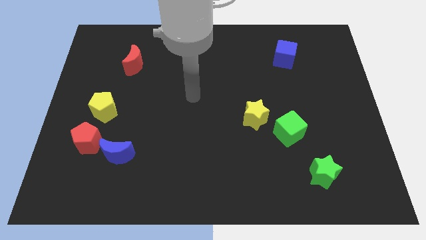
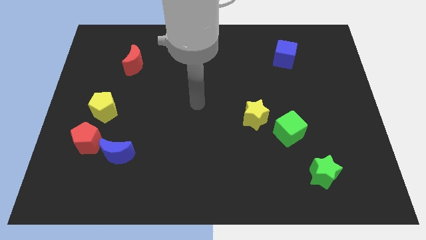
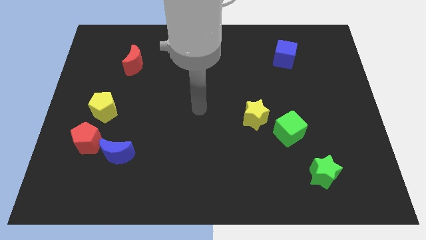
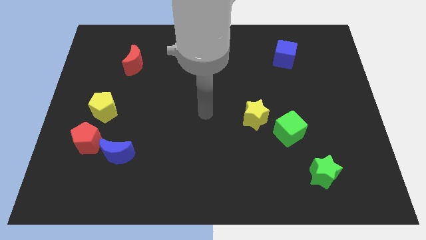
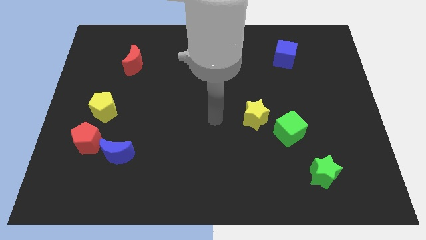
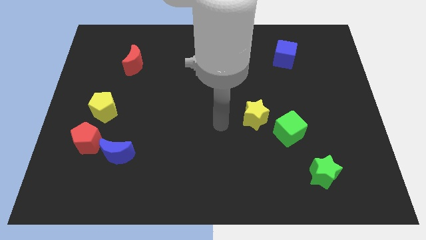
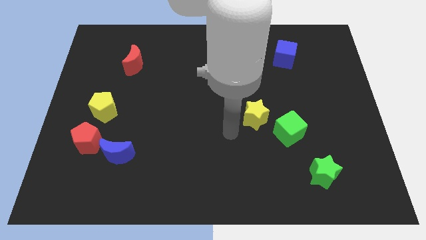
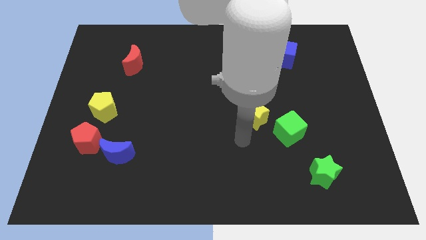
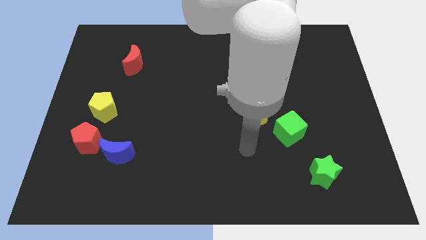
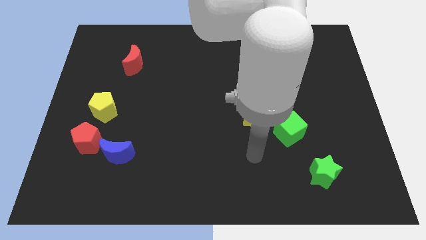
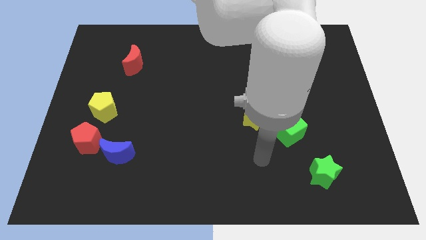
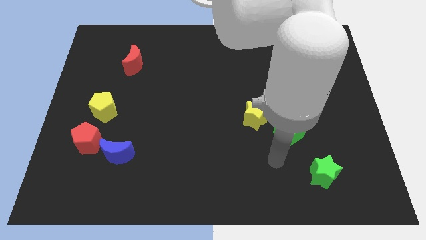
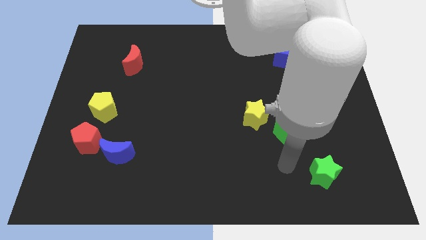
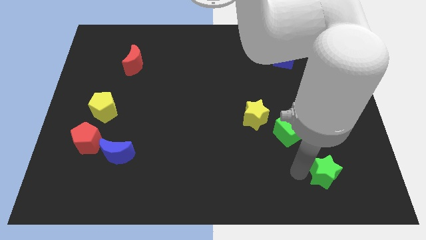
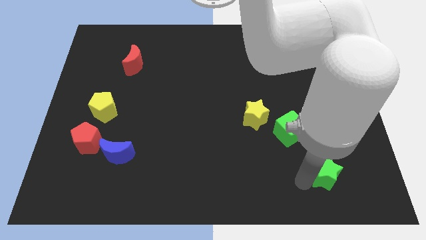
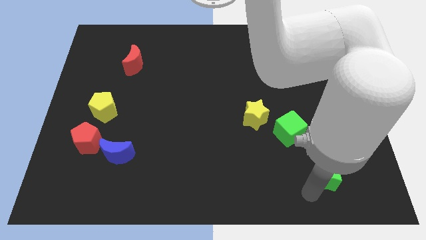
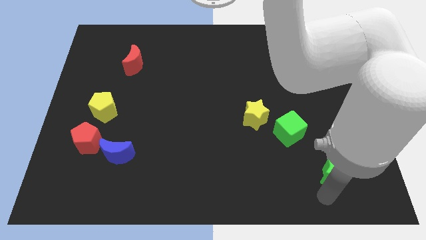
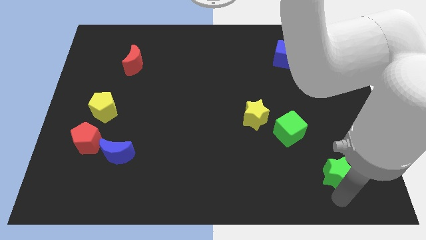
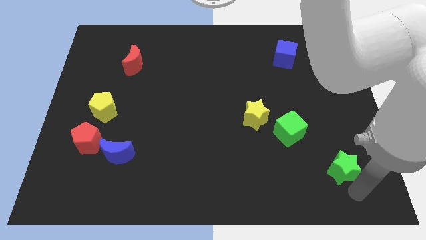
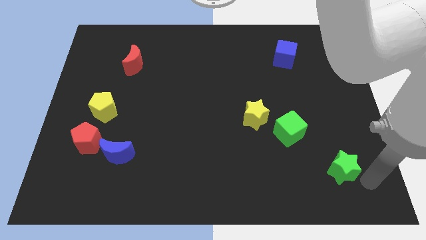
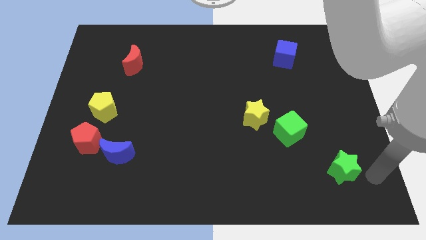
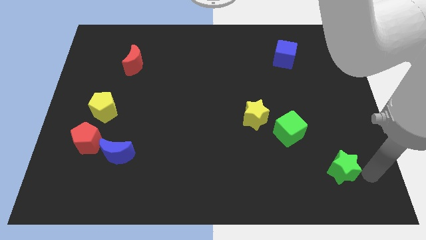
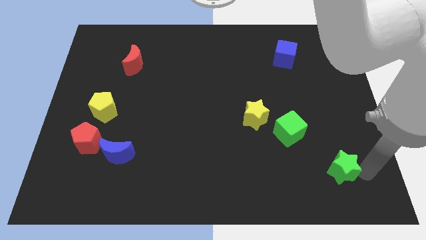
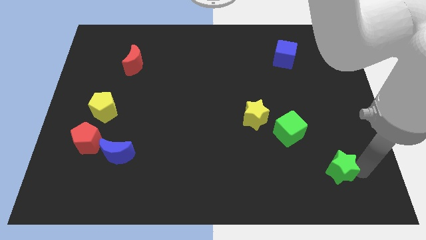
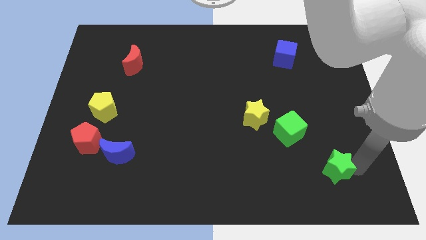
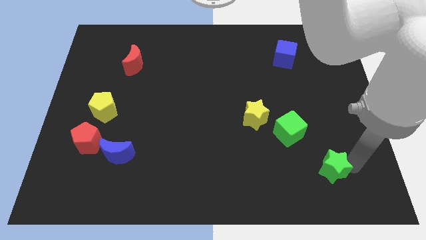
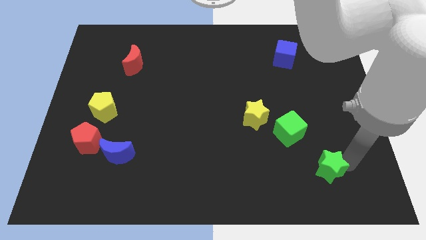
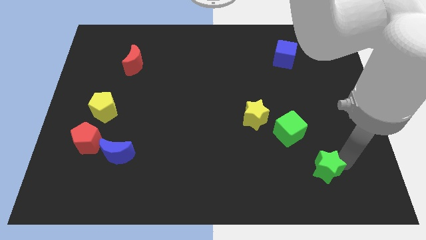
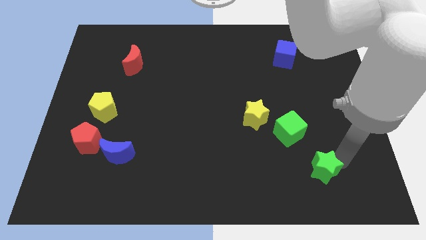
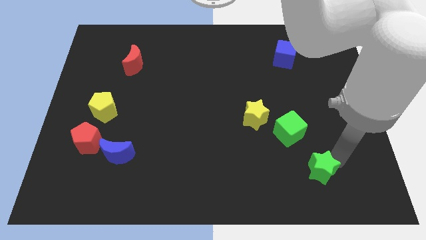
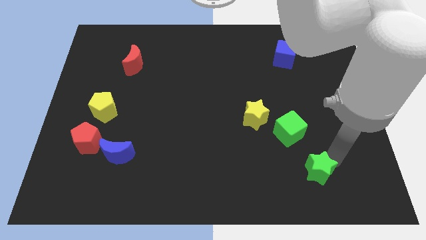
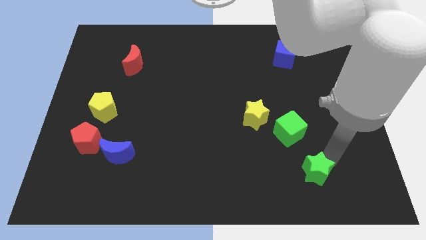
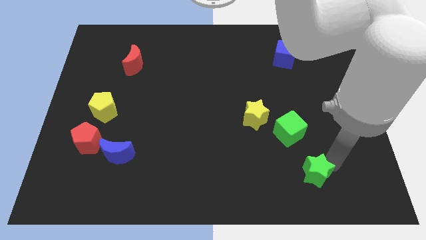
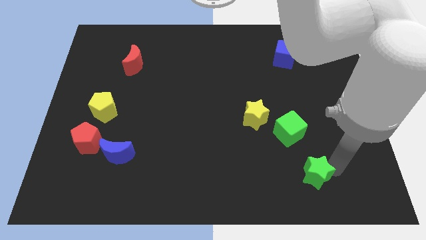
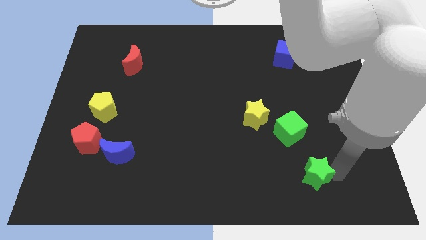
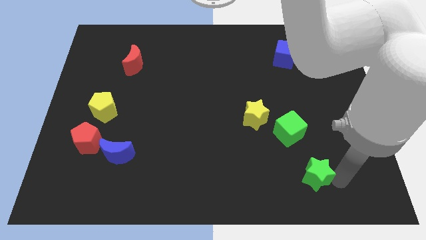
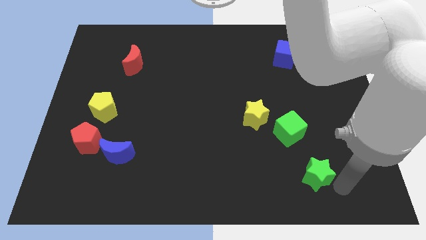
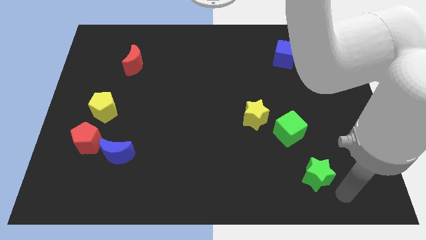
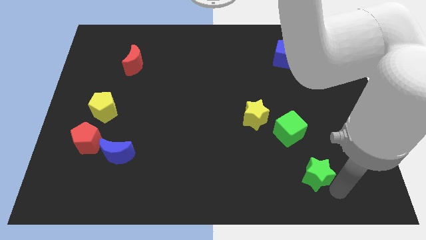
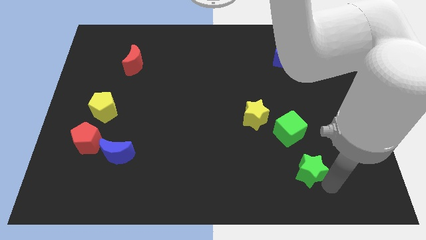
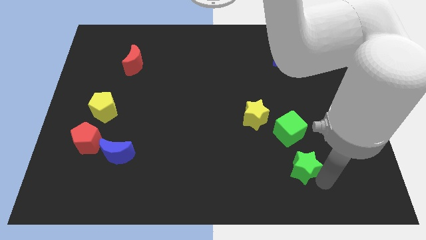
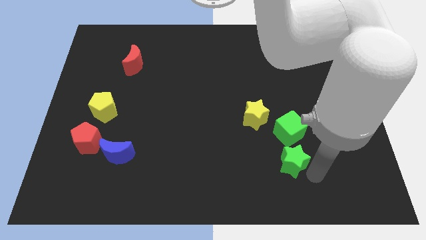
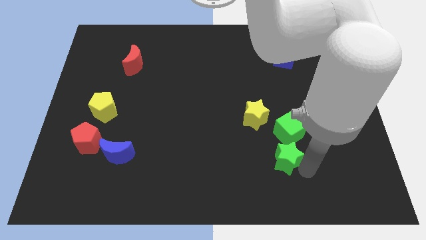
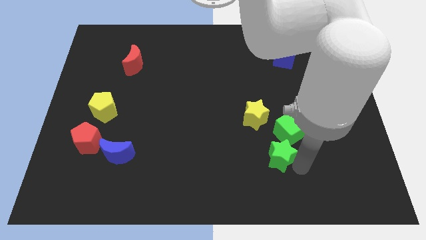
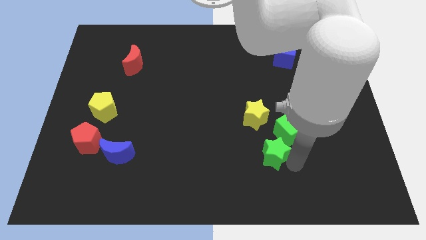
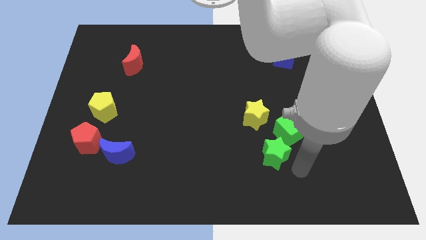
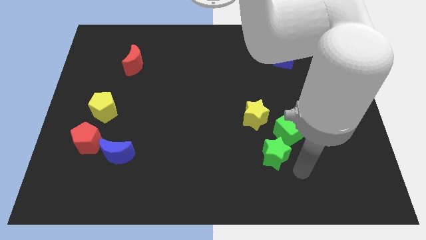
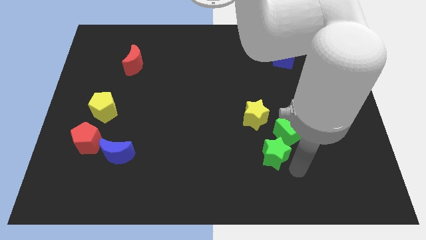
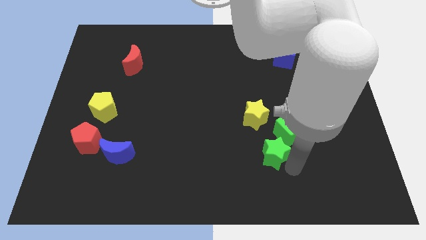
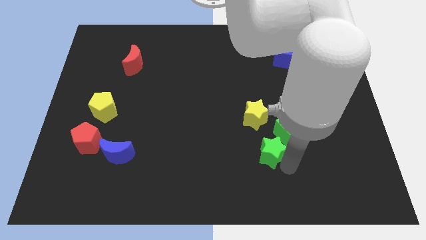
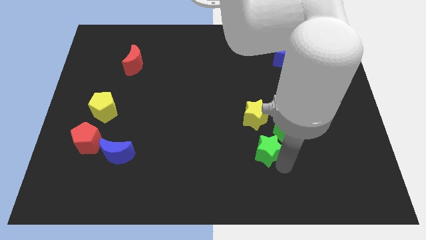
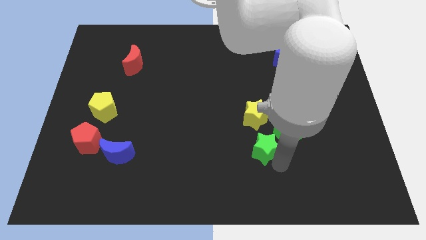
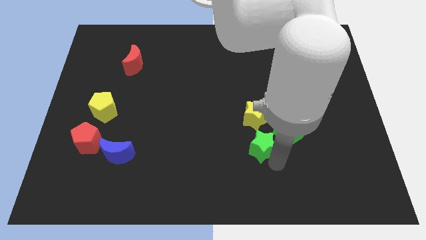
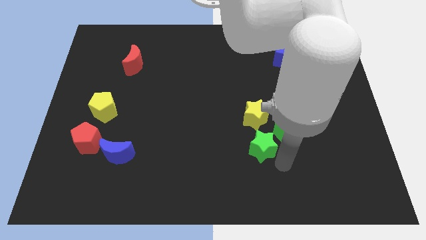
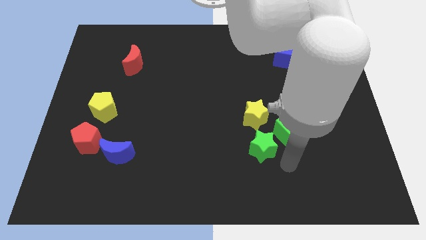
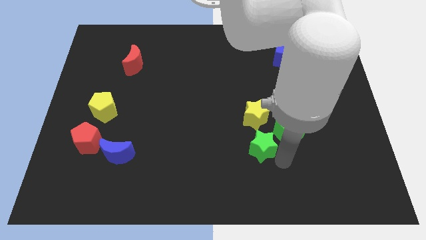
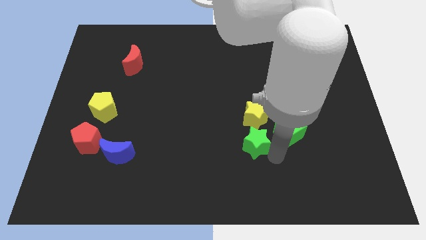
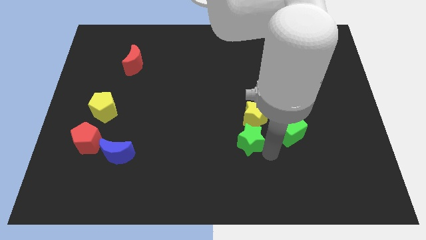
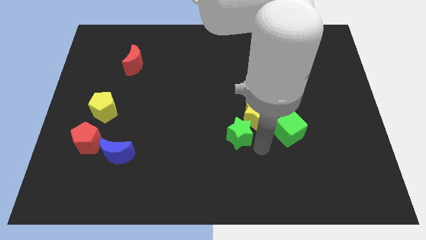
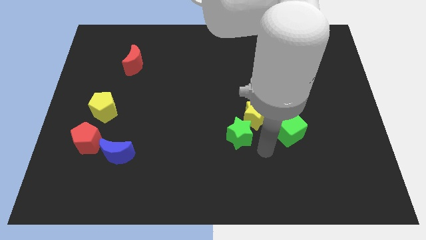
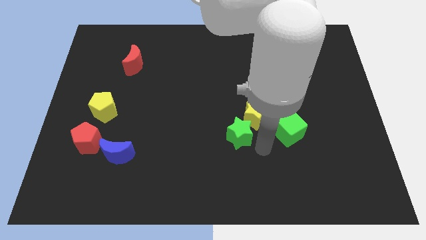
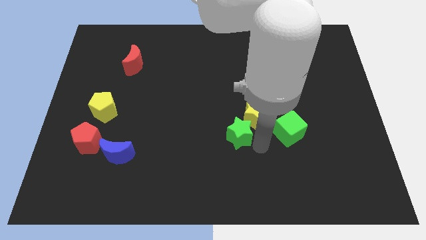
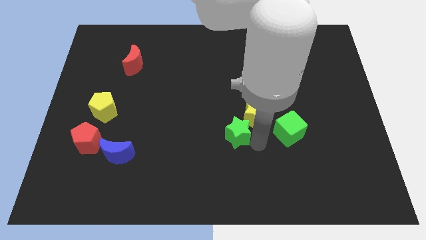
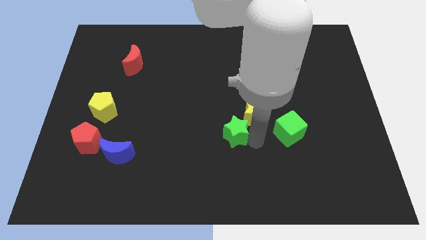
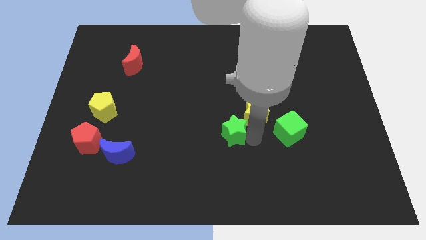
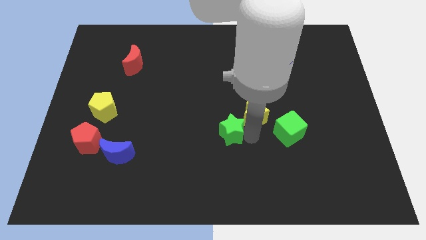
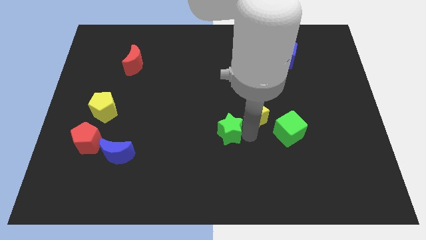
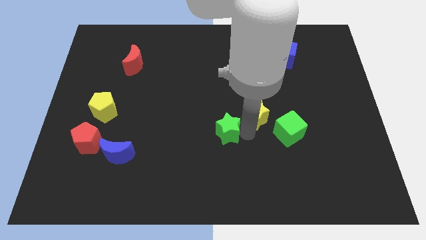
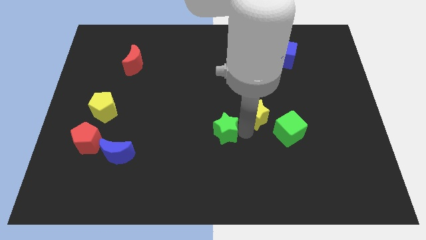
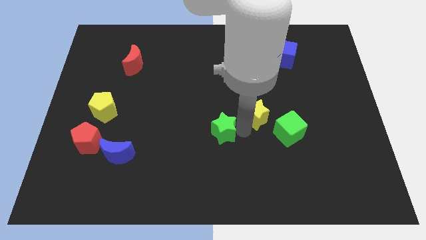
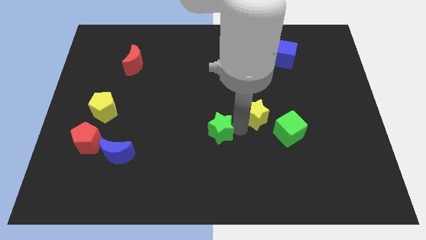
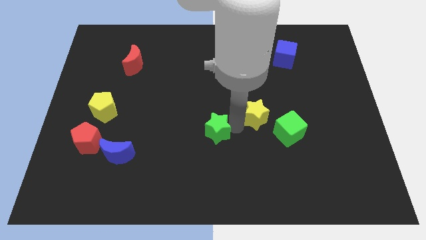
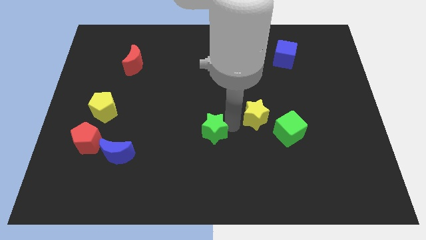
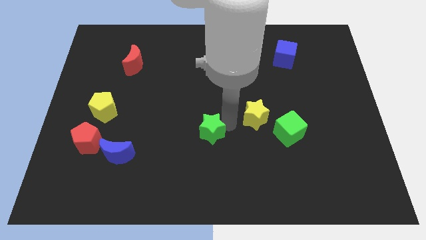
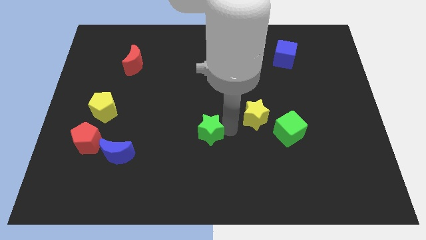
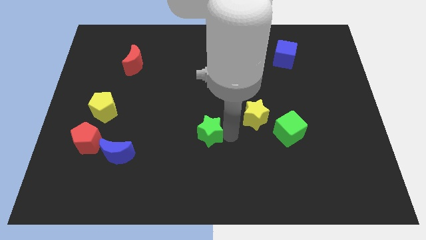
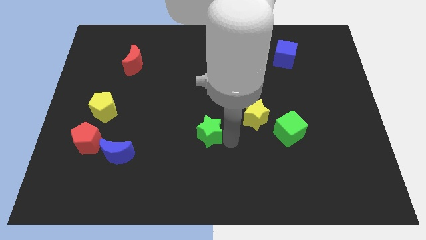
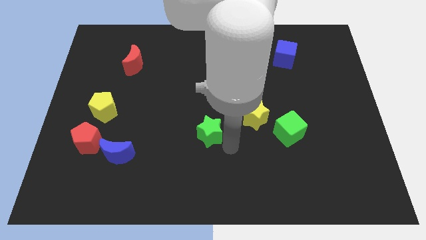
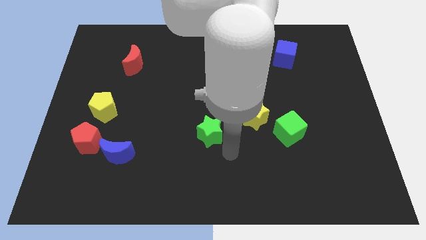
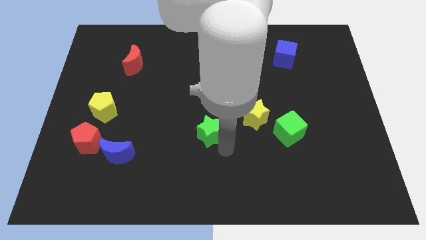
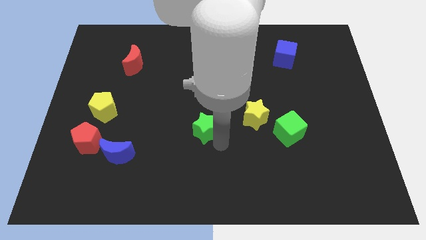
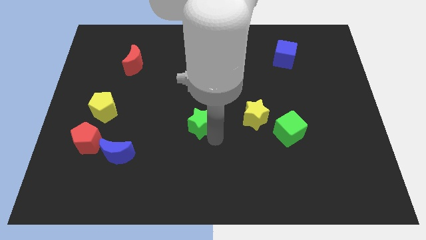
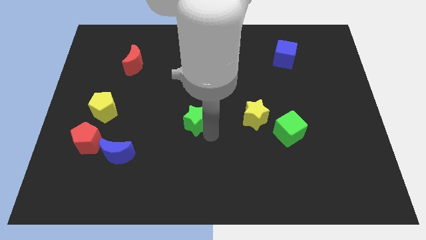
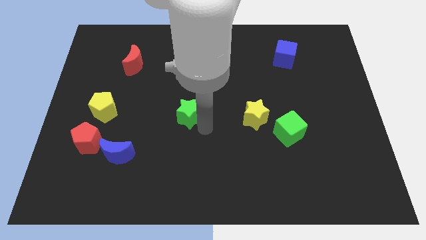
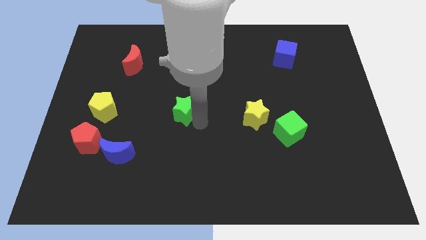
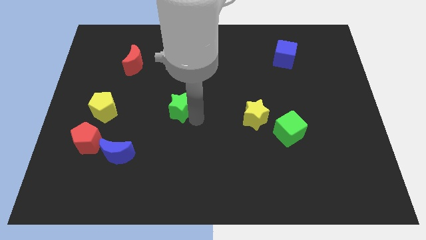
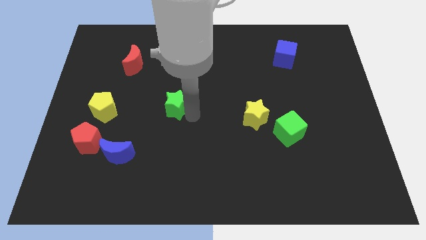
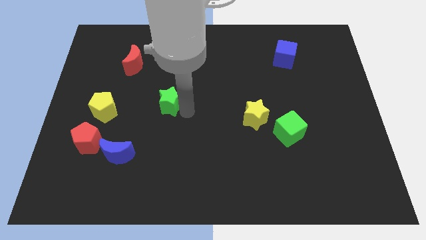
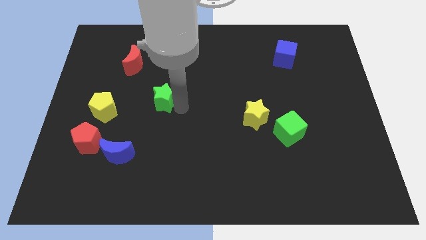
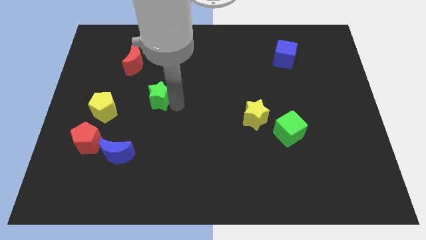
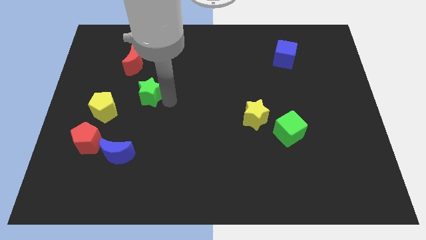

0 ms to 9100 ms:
push the green star to the top right of the yellow pentagon
